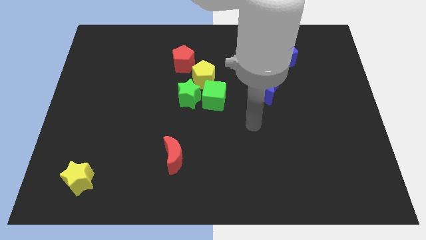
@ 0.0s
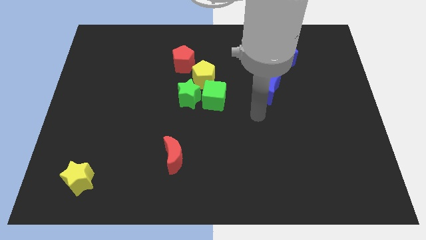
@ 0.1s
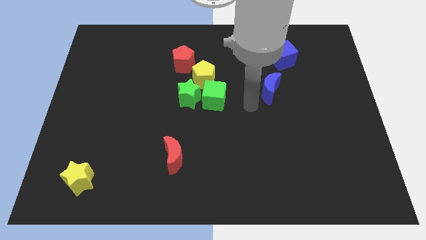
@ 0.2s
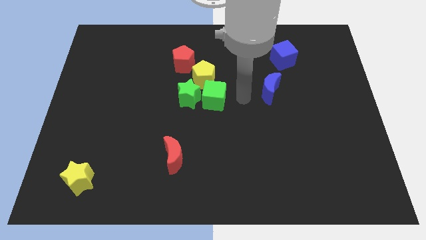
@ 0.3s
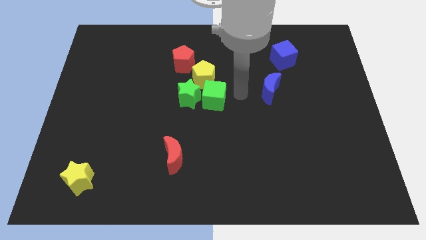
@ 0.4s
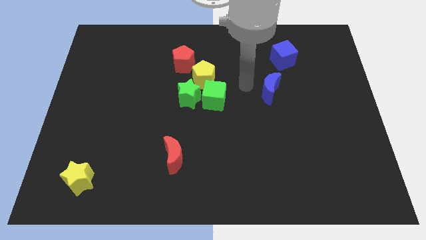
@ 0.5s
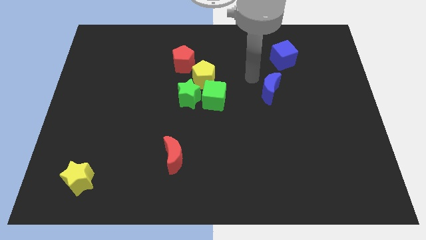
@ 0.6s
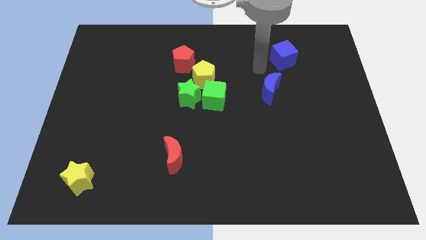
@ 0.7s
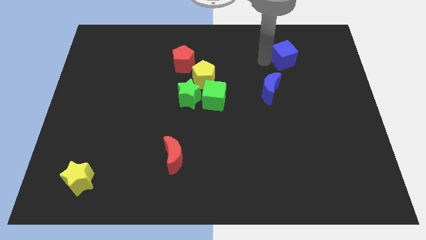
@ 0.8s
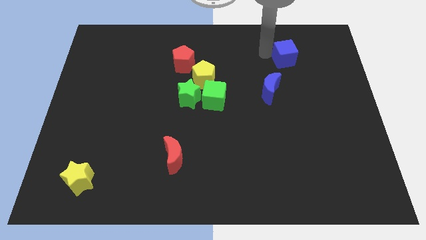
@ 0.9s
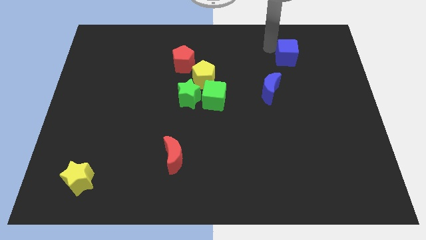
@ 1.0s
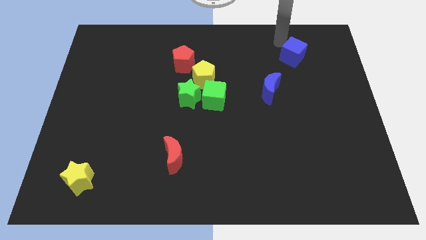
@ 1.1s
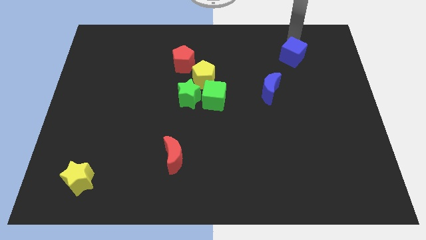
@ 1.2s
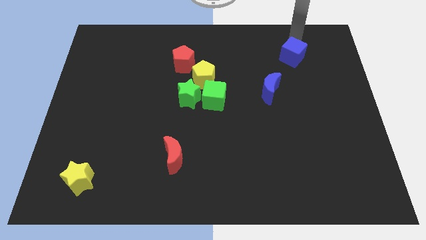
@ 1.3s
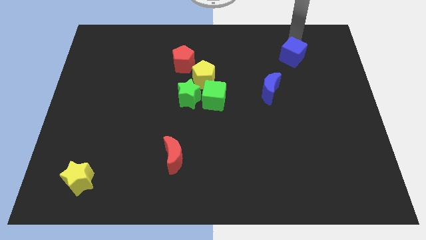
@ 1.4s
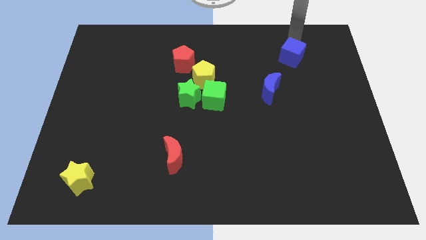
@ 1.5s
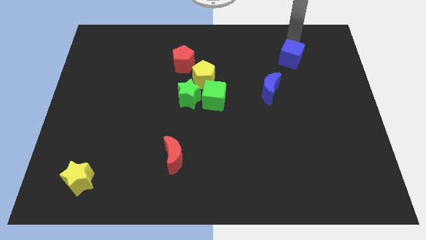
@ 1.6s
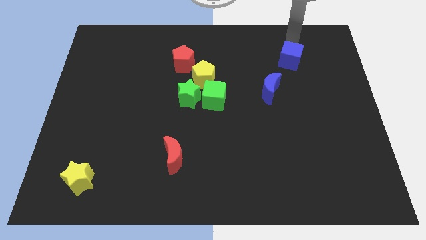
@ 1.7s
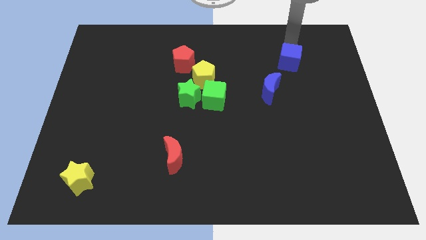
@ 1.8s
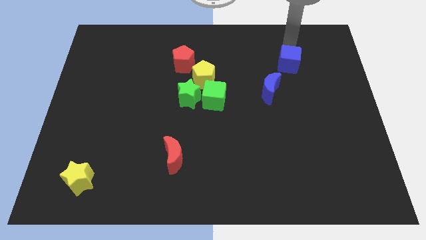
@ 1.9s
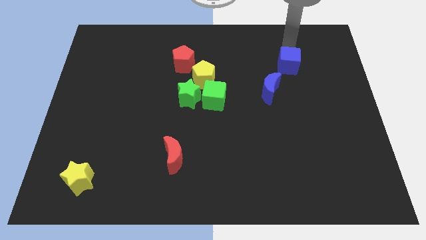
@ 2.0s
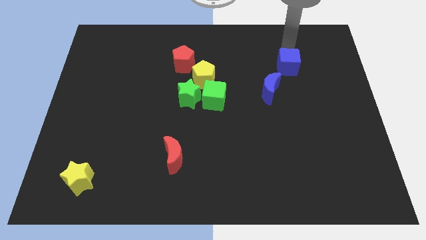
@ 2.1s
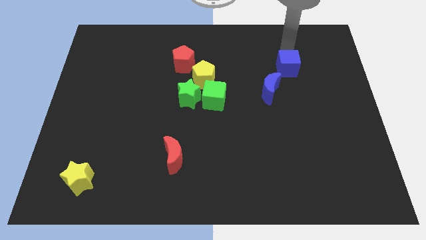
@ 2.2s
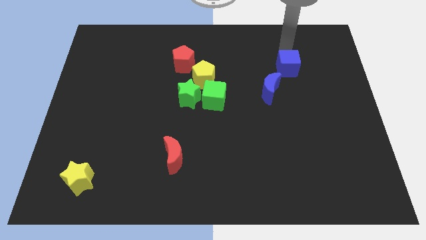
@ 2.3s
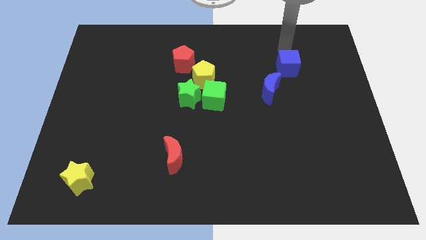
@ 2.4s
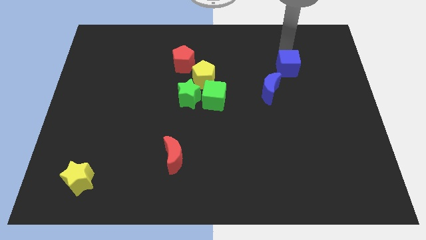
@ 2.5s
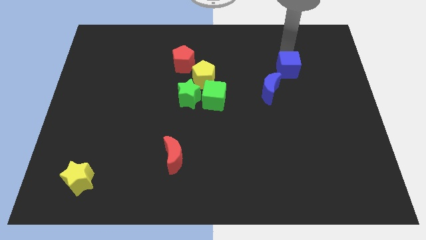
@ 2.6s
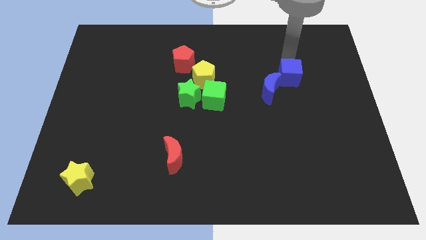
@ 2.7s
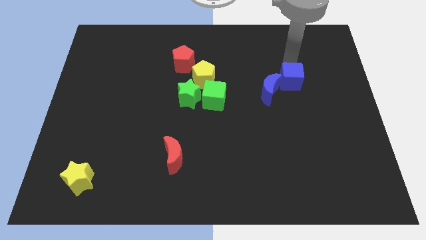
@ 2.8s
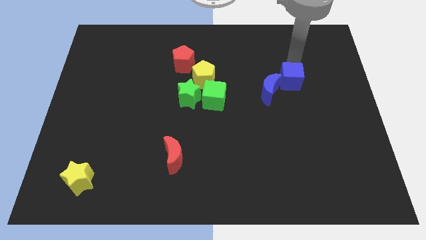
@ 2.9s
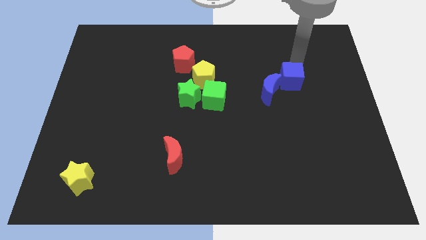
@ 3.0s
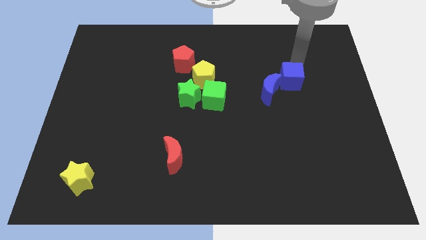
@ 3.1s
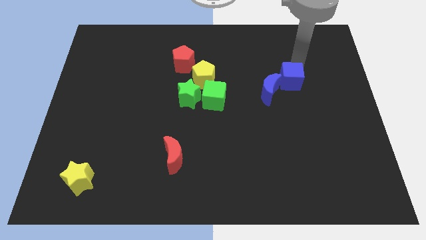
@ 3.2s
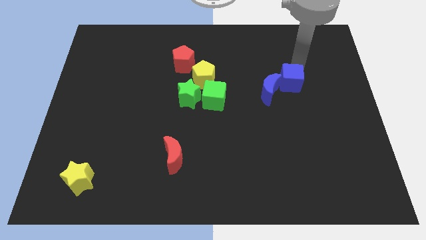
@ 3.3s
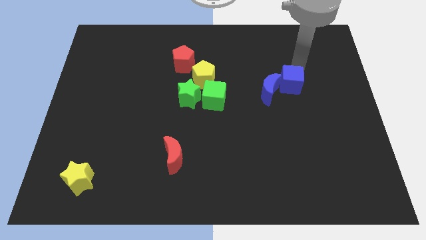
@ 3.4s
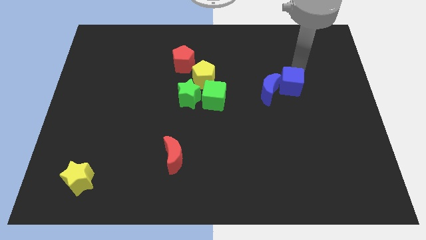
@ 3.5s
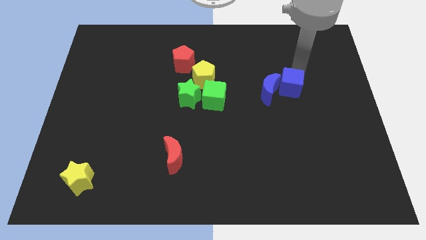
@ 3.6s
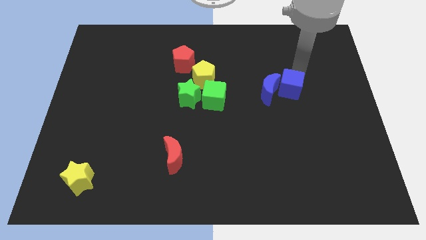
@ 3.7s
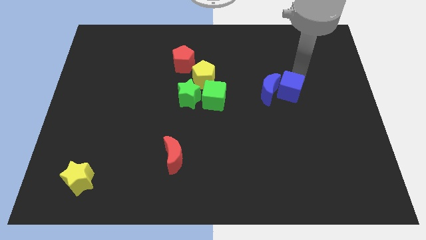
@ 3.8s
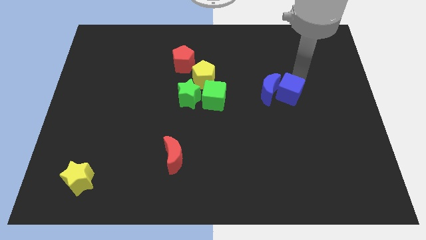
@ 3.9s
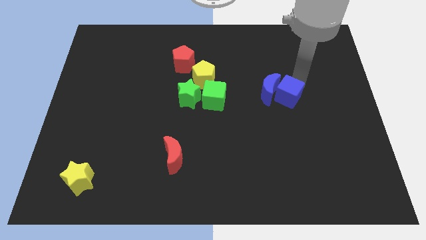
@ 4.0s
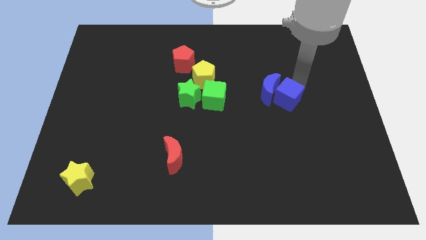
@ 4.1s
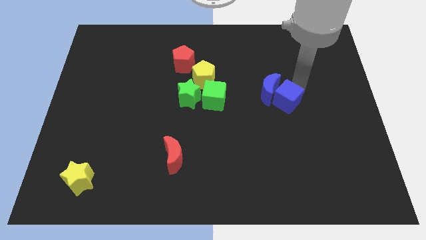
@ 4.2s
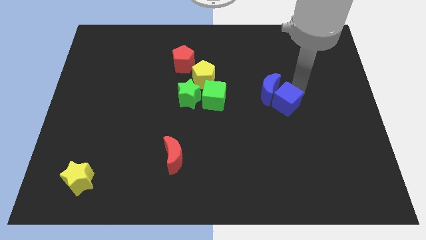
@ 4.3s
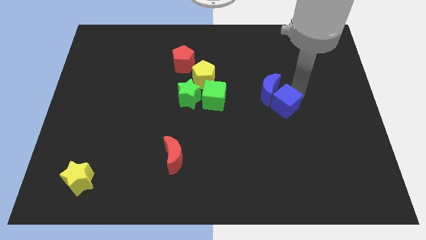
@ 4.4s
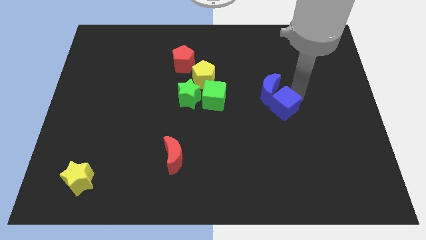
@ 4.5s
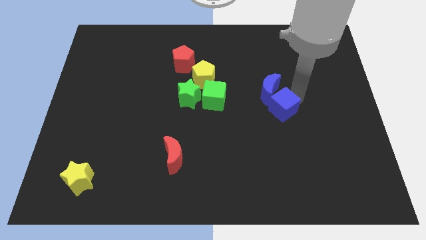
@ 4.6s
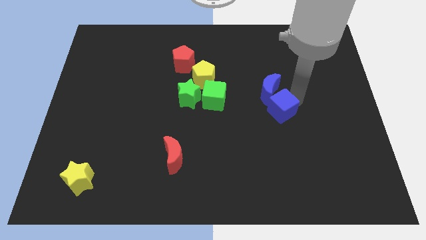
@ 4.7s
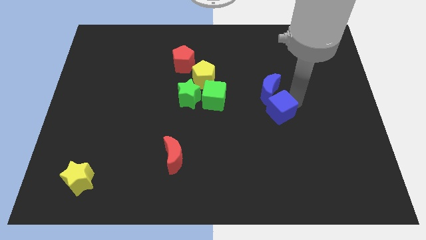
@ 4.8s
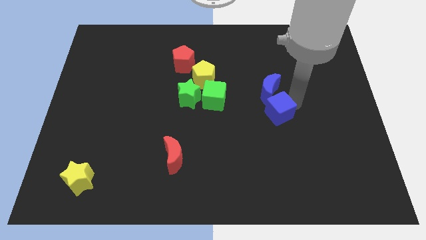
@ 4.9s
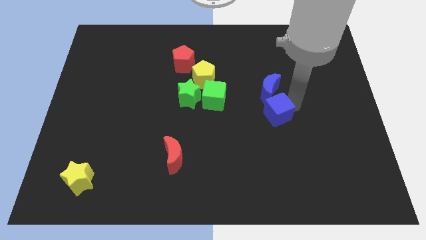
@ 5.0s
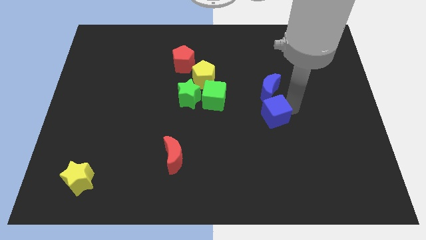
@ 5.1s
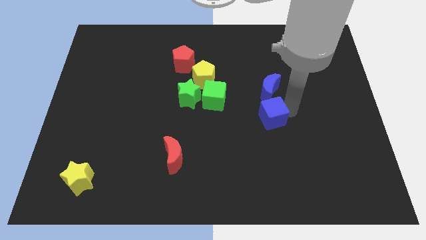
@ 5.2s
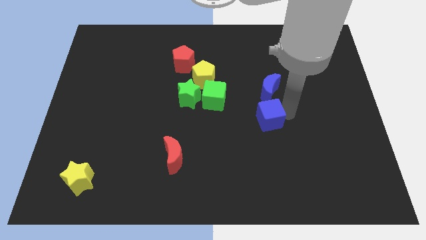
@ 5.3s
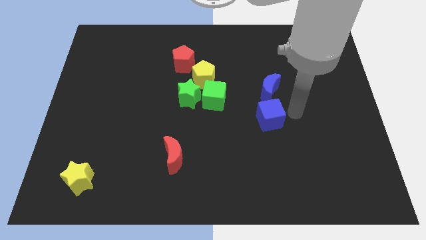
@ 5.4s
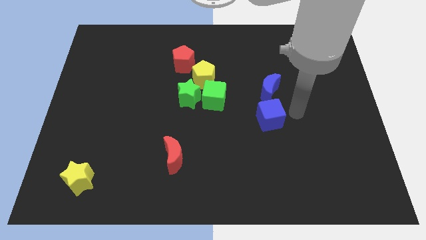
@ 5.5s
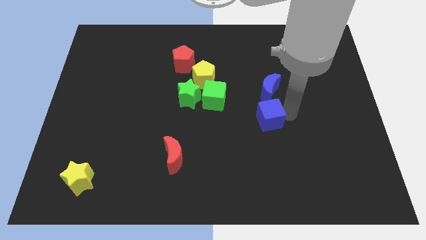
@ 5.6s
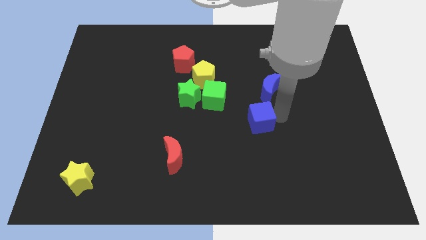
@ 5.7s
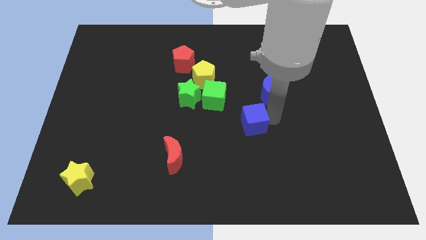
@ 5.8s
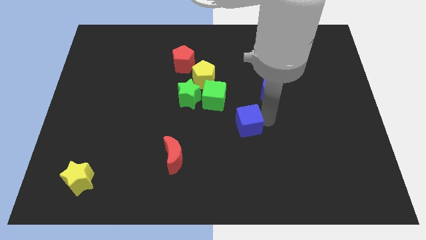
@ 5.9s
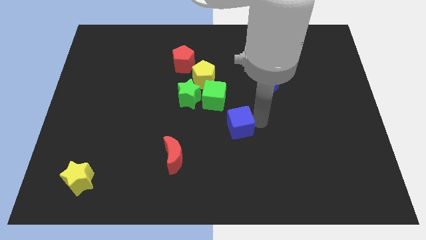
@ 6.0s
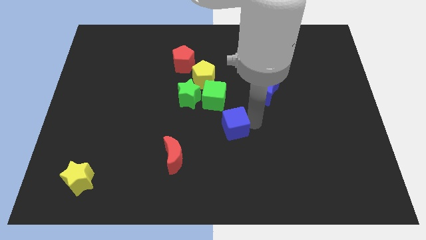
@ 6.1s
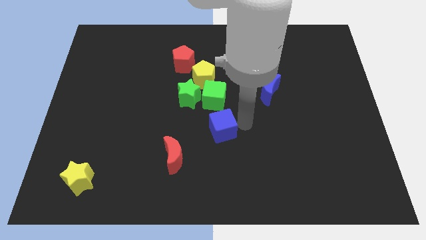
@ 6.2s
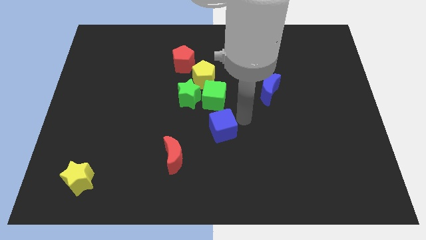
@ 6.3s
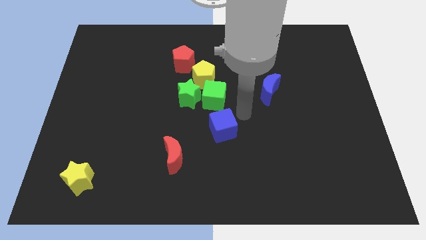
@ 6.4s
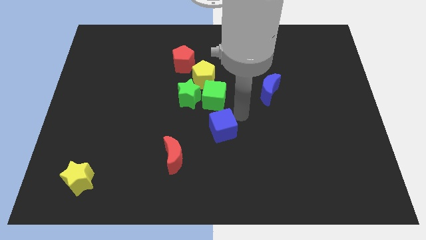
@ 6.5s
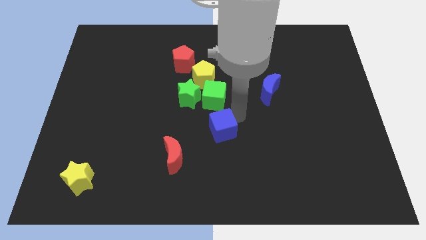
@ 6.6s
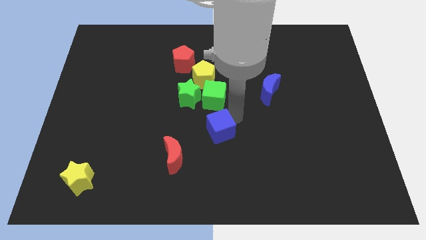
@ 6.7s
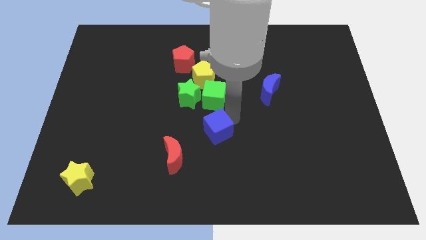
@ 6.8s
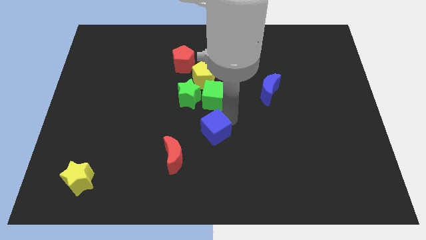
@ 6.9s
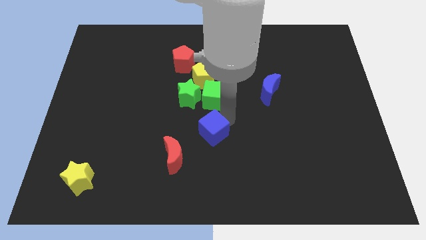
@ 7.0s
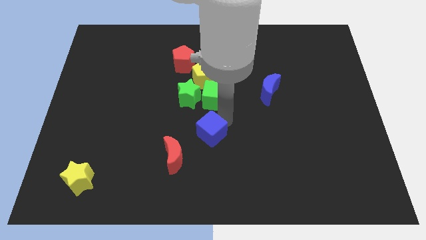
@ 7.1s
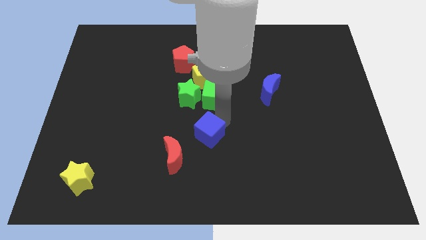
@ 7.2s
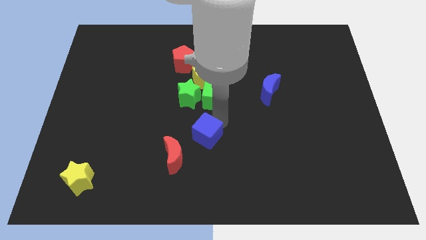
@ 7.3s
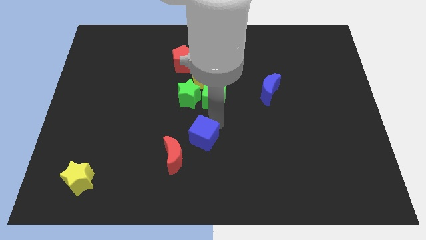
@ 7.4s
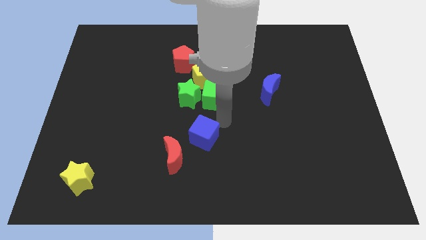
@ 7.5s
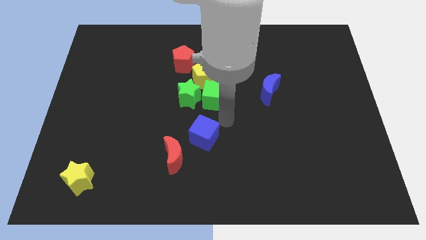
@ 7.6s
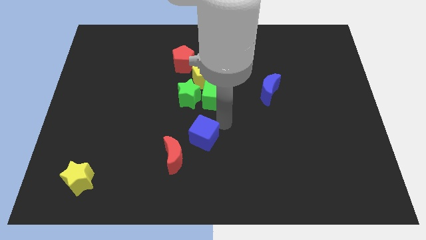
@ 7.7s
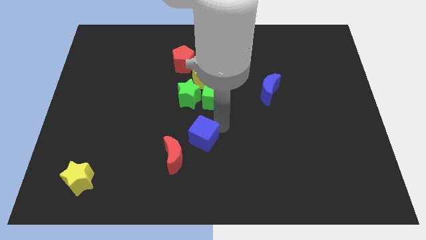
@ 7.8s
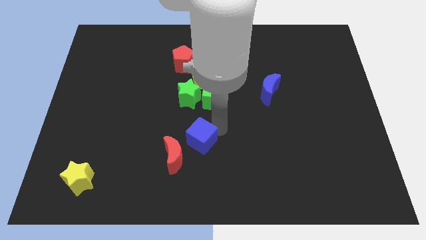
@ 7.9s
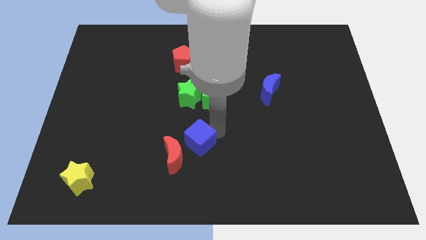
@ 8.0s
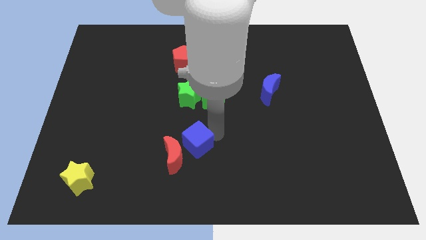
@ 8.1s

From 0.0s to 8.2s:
put the blue cube next to the red moon
